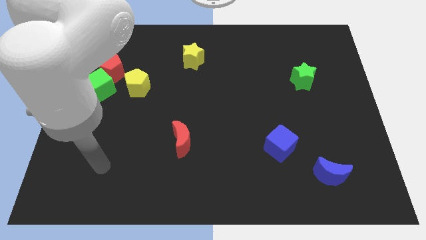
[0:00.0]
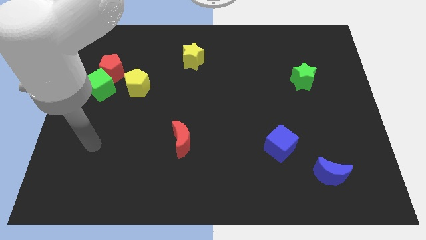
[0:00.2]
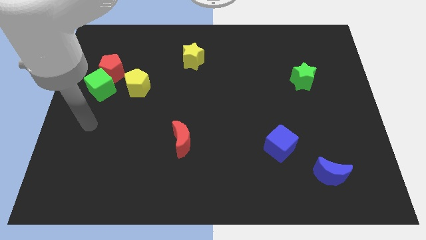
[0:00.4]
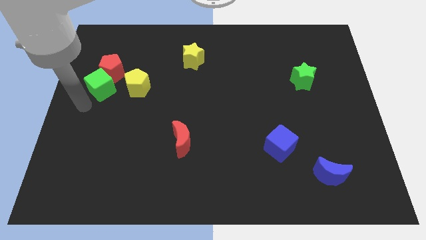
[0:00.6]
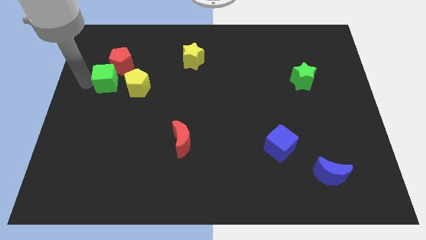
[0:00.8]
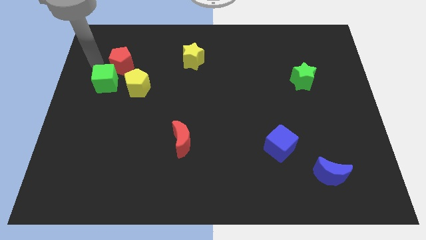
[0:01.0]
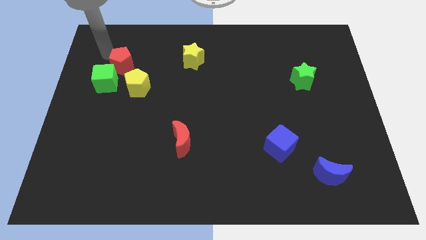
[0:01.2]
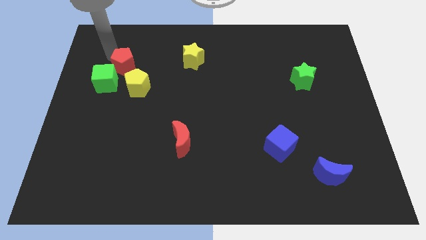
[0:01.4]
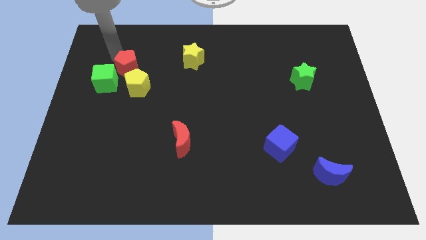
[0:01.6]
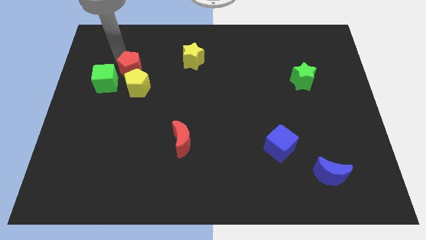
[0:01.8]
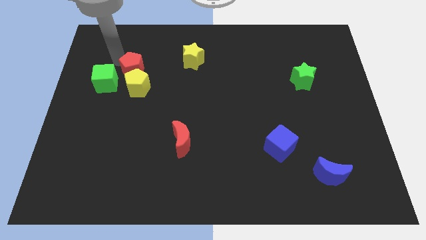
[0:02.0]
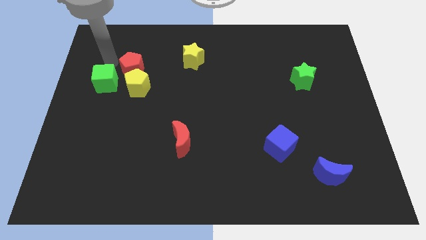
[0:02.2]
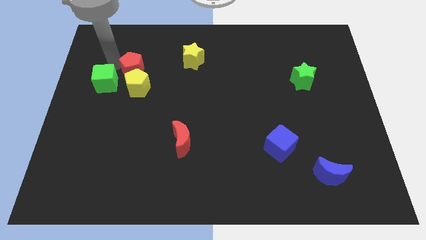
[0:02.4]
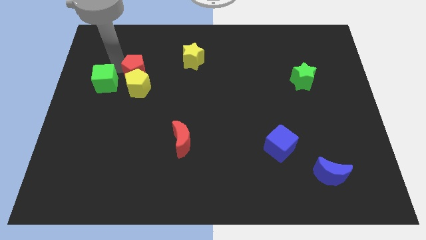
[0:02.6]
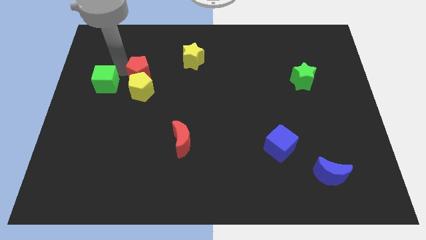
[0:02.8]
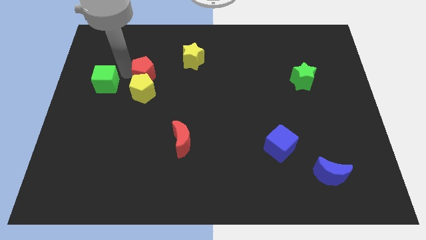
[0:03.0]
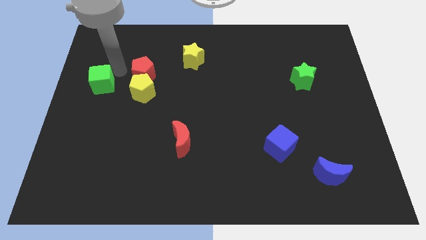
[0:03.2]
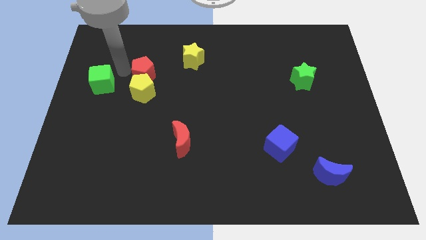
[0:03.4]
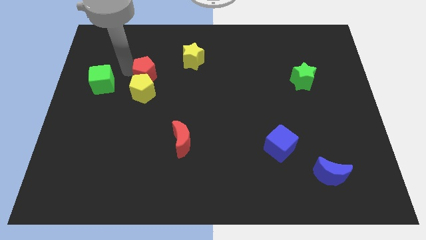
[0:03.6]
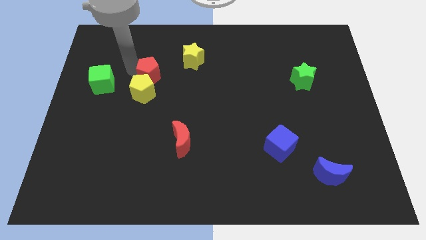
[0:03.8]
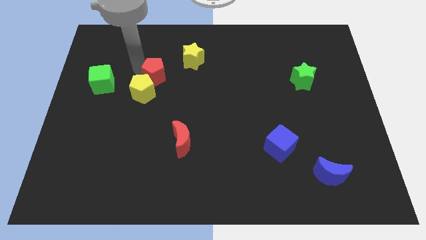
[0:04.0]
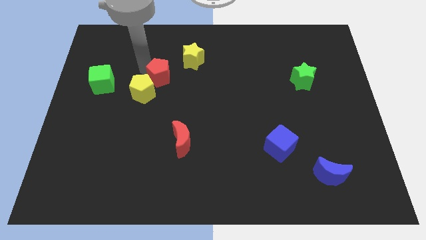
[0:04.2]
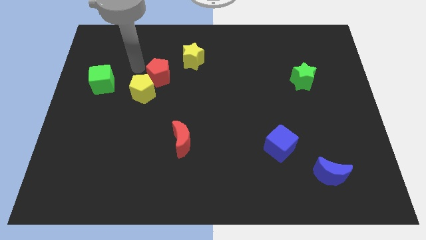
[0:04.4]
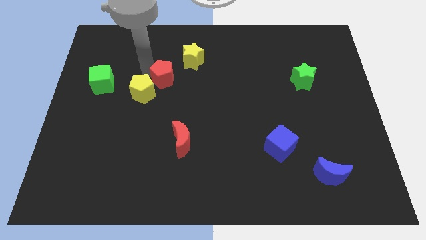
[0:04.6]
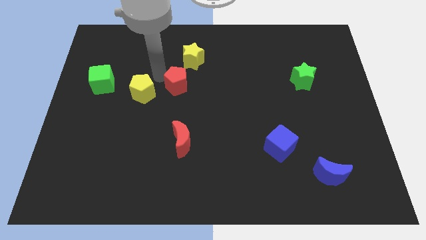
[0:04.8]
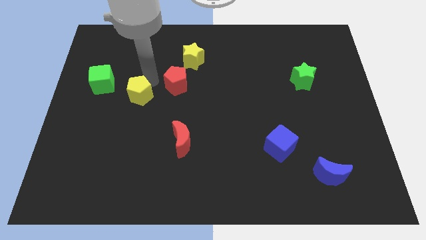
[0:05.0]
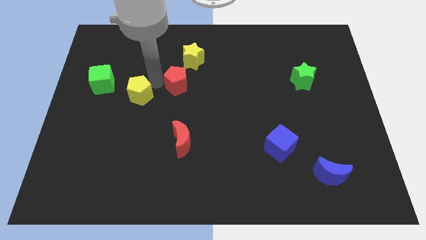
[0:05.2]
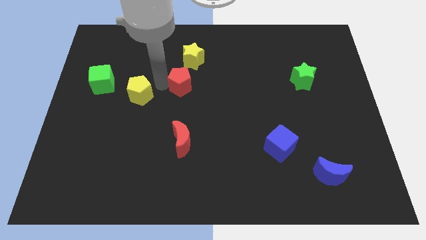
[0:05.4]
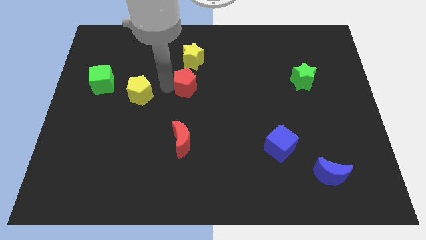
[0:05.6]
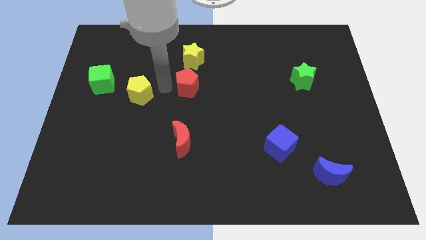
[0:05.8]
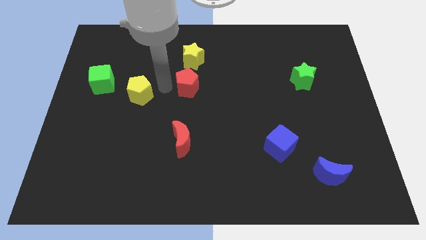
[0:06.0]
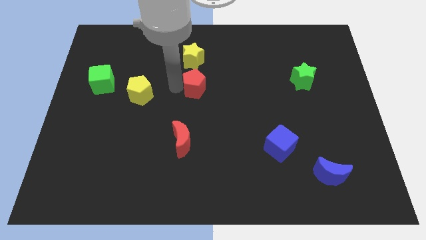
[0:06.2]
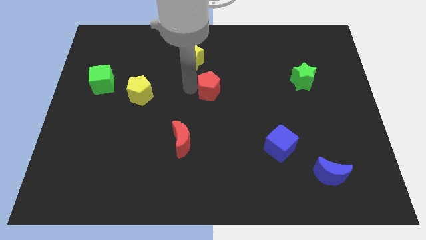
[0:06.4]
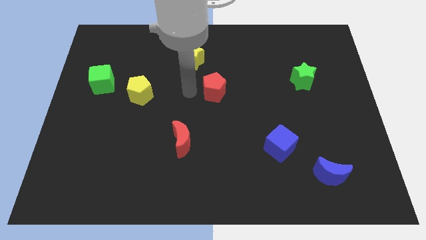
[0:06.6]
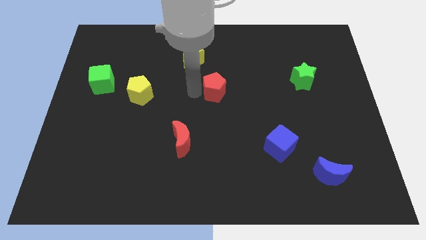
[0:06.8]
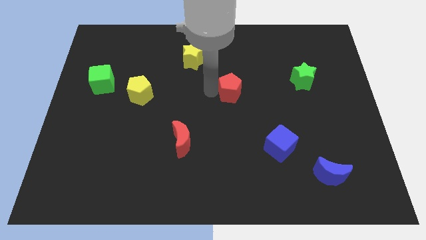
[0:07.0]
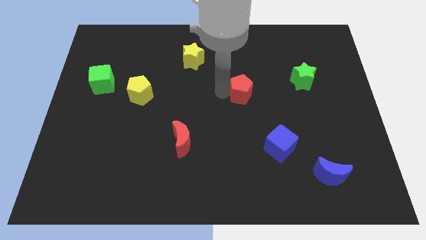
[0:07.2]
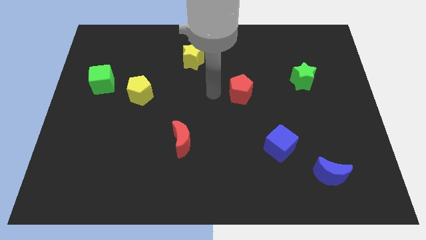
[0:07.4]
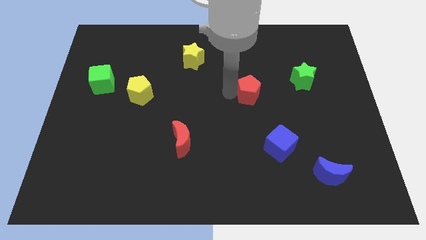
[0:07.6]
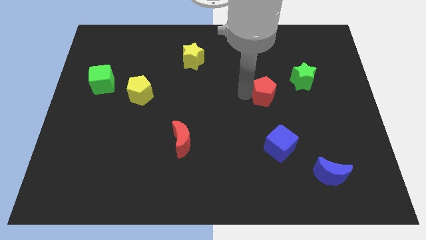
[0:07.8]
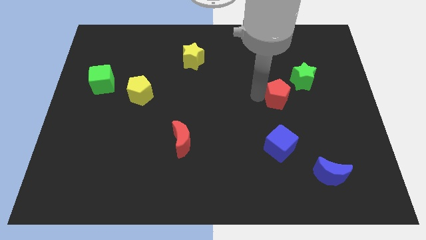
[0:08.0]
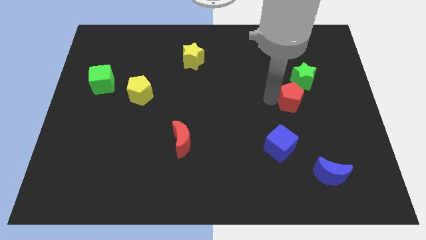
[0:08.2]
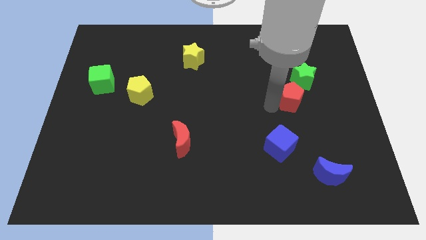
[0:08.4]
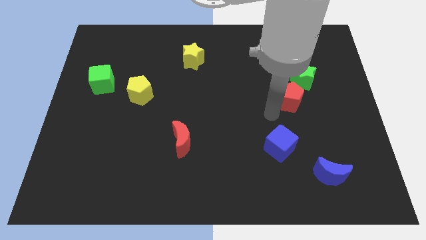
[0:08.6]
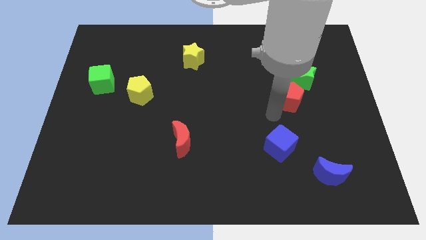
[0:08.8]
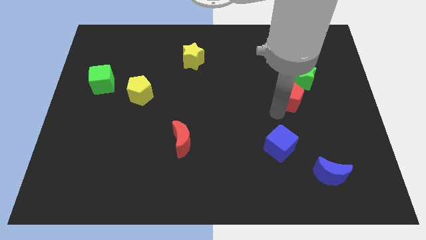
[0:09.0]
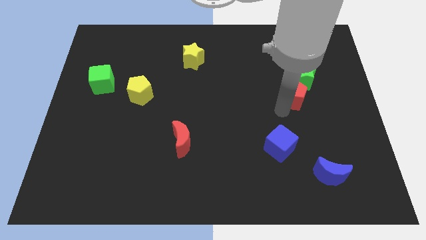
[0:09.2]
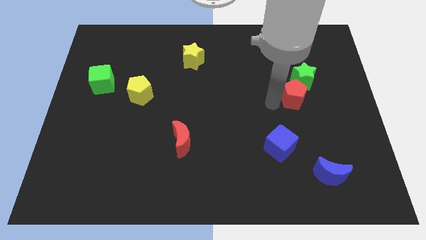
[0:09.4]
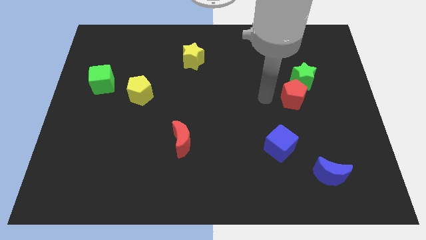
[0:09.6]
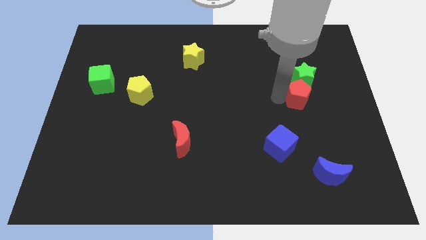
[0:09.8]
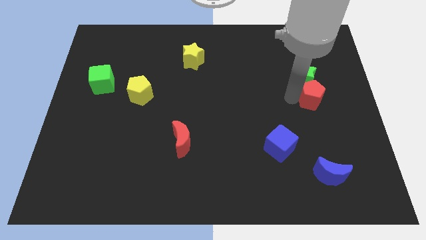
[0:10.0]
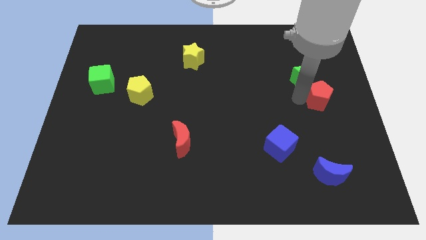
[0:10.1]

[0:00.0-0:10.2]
push the red pentagon to the center right
